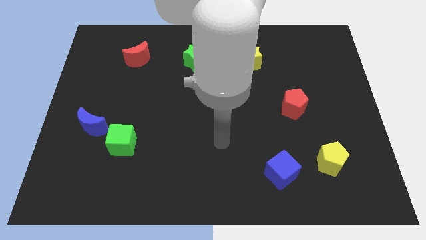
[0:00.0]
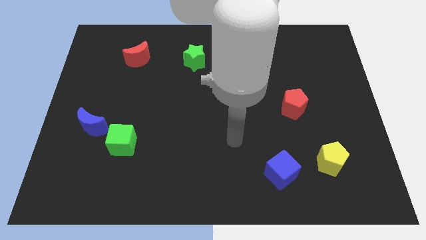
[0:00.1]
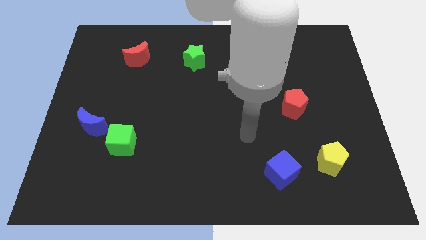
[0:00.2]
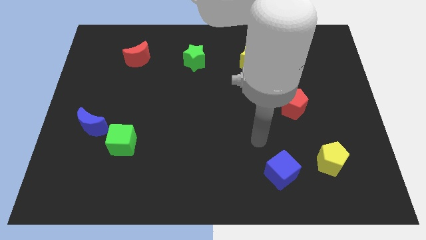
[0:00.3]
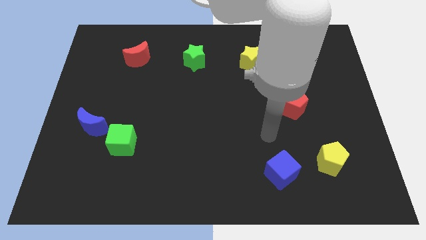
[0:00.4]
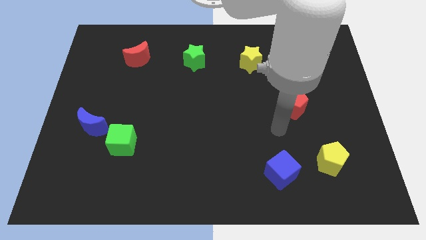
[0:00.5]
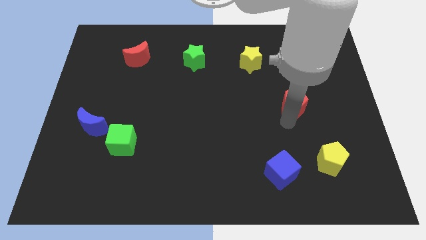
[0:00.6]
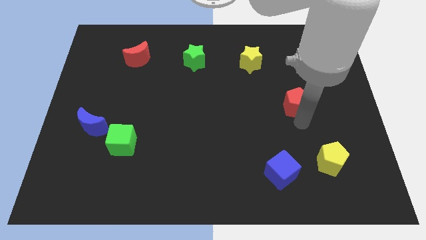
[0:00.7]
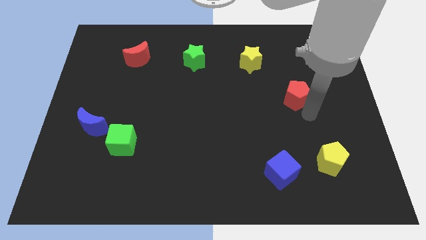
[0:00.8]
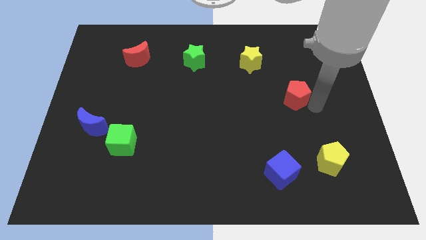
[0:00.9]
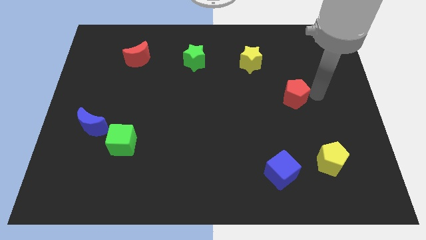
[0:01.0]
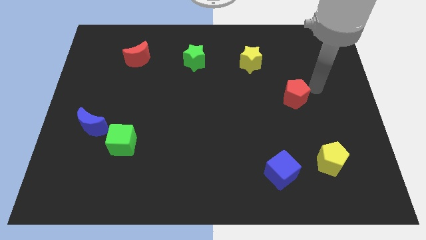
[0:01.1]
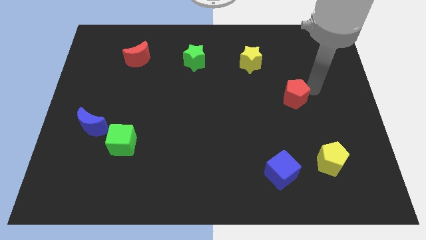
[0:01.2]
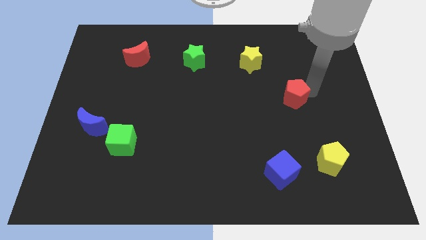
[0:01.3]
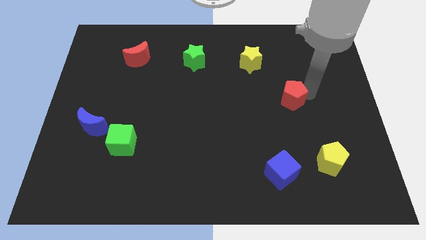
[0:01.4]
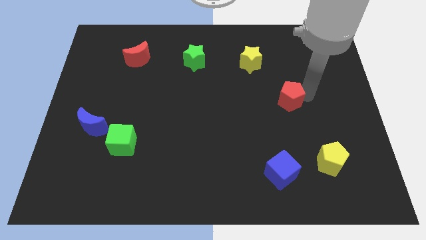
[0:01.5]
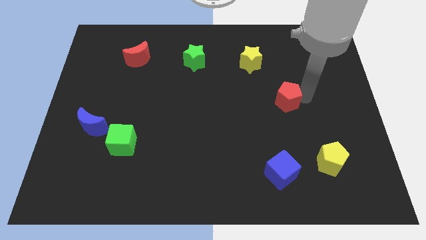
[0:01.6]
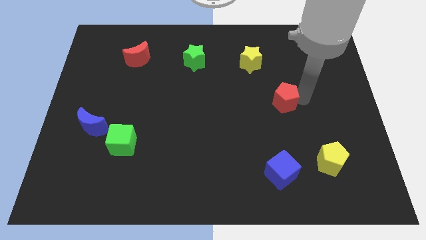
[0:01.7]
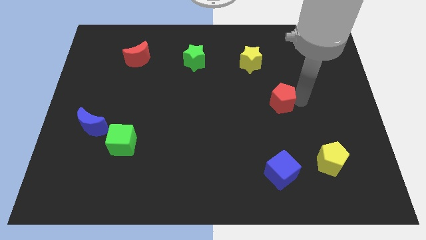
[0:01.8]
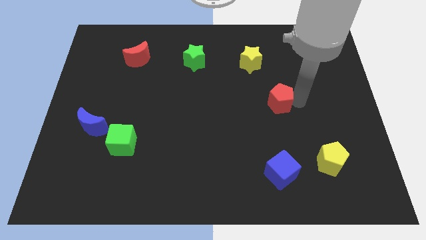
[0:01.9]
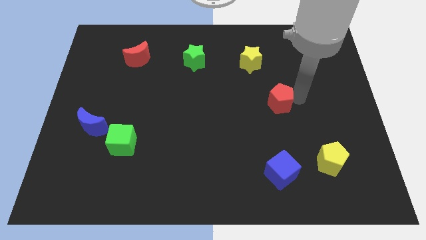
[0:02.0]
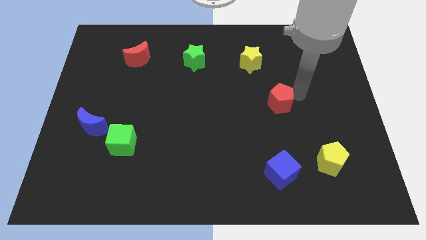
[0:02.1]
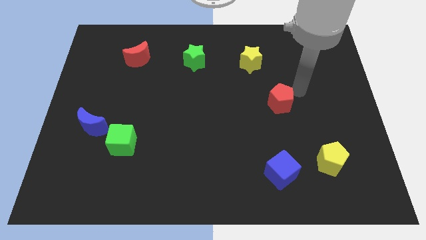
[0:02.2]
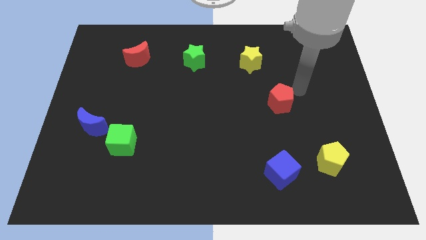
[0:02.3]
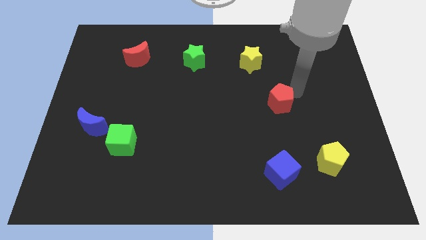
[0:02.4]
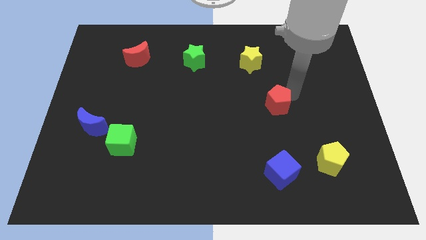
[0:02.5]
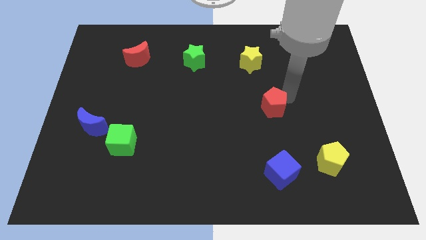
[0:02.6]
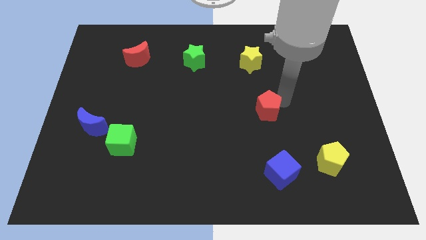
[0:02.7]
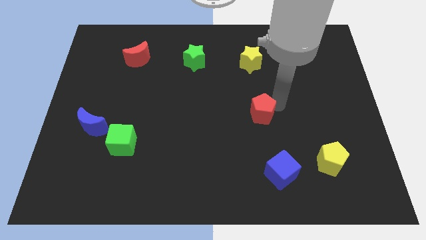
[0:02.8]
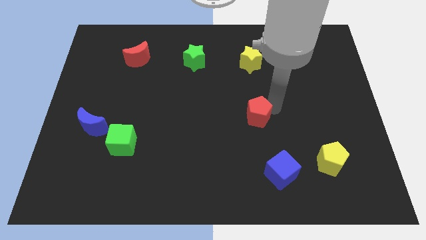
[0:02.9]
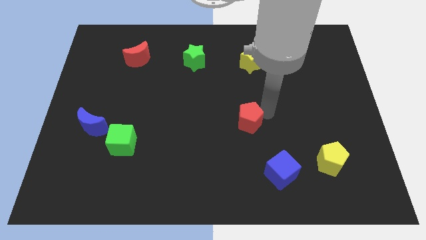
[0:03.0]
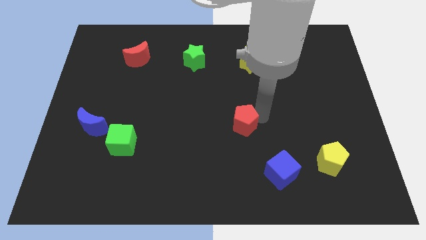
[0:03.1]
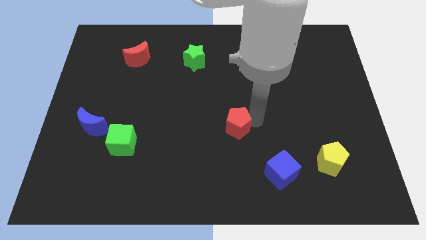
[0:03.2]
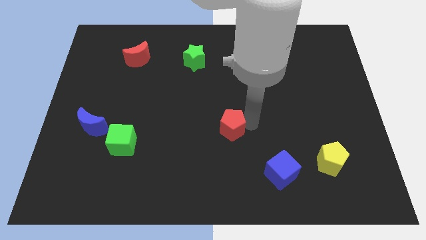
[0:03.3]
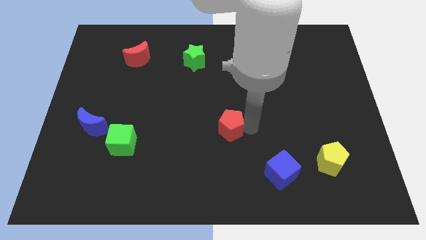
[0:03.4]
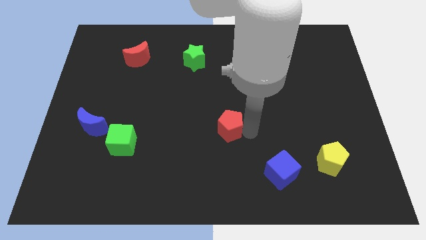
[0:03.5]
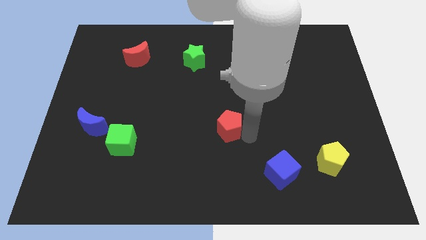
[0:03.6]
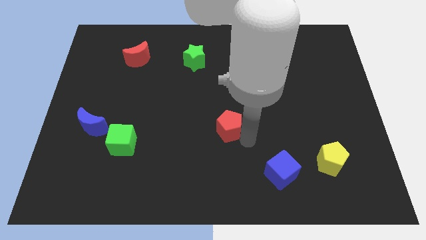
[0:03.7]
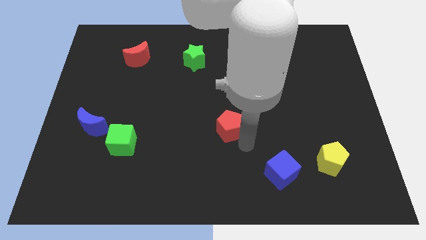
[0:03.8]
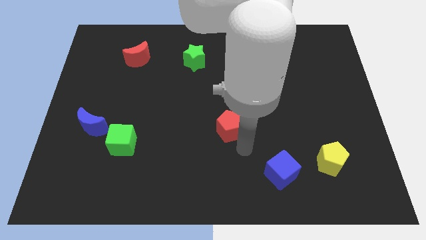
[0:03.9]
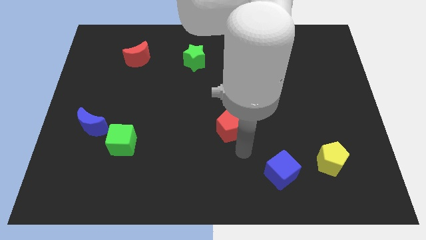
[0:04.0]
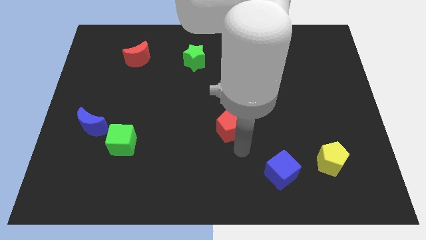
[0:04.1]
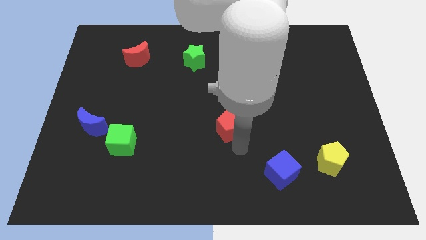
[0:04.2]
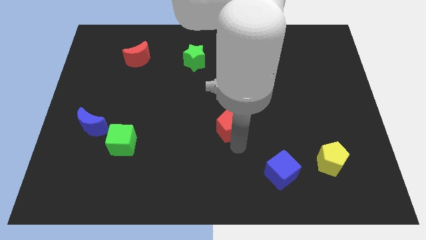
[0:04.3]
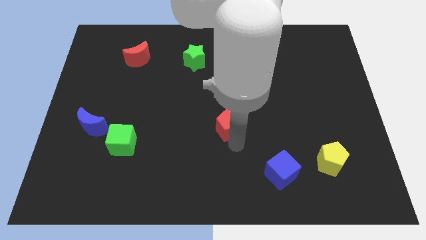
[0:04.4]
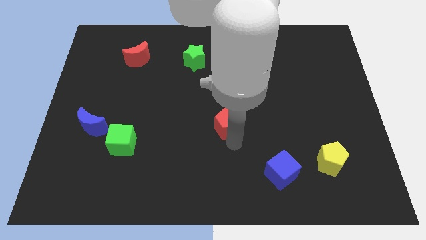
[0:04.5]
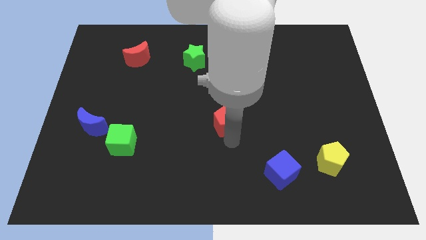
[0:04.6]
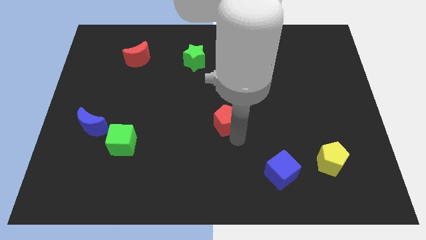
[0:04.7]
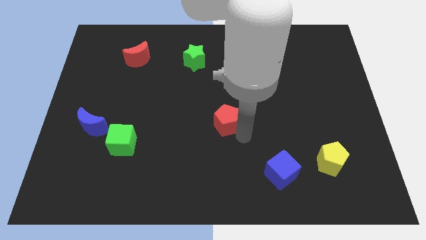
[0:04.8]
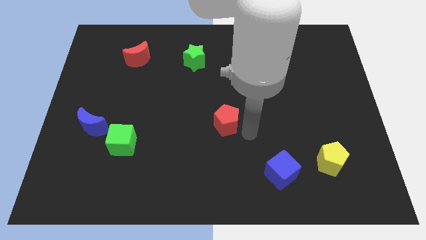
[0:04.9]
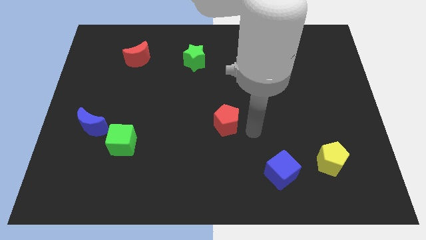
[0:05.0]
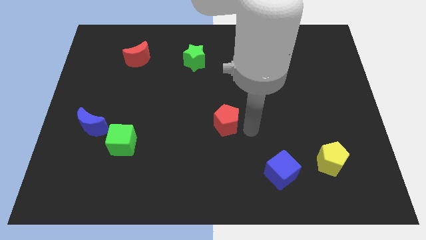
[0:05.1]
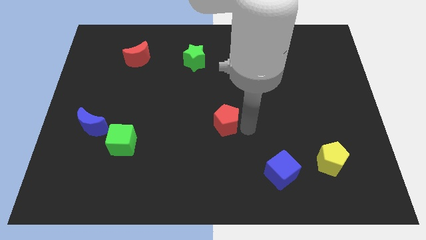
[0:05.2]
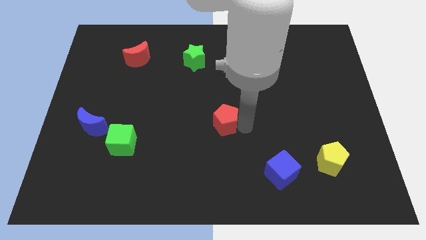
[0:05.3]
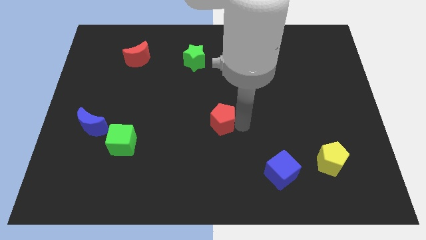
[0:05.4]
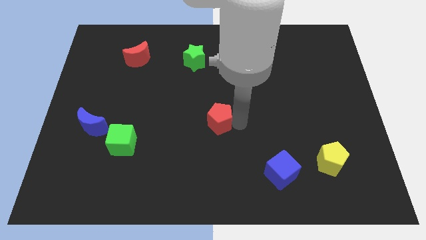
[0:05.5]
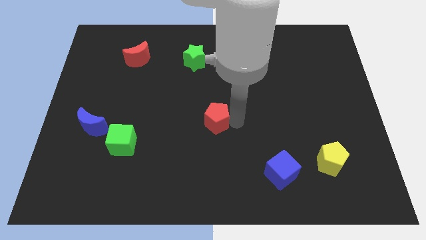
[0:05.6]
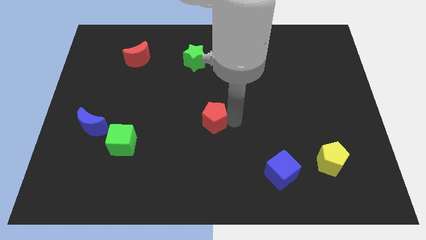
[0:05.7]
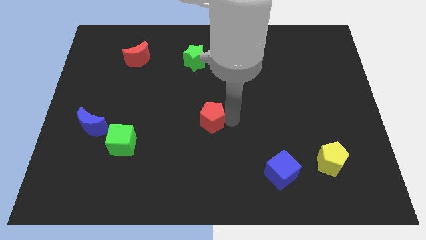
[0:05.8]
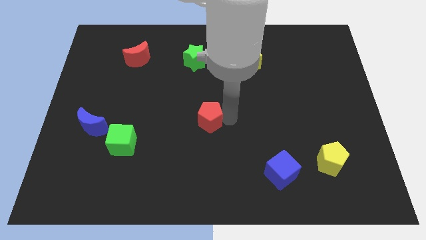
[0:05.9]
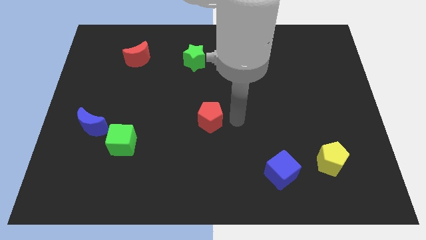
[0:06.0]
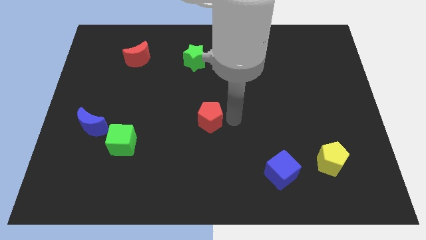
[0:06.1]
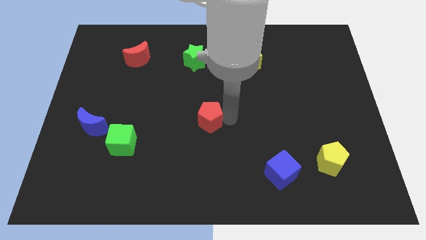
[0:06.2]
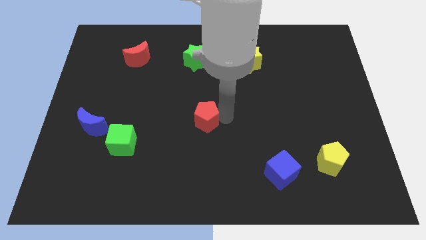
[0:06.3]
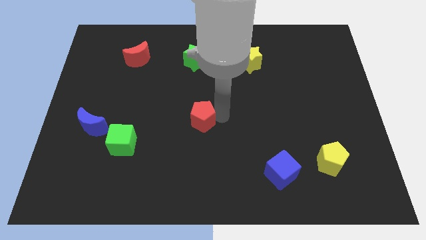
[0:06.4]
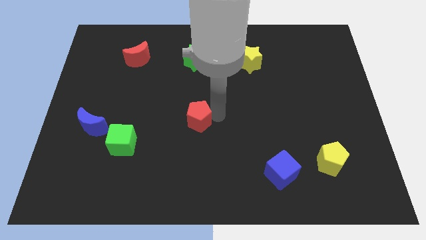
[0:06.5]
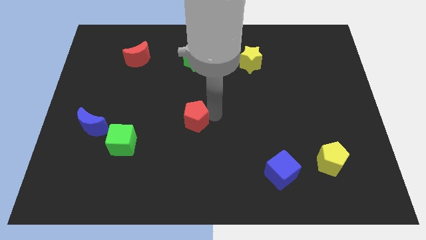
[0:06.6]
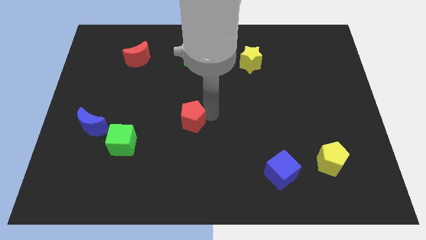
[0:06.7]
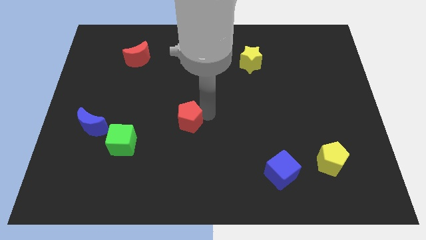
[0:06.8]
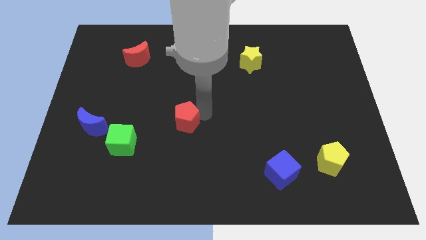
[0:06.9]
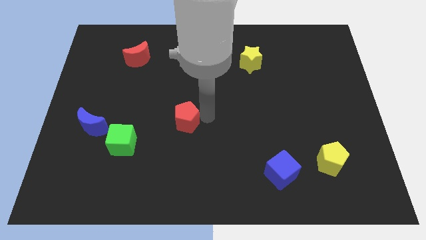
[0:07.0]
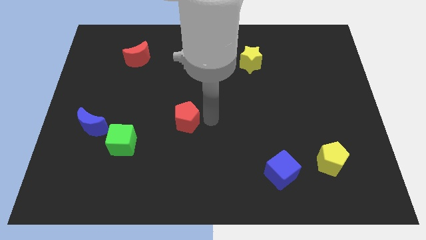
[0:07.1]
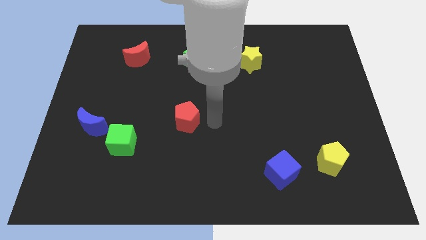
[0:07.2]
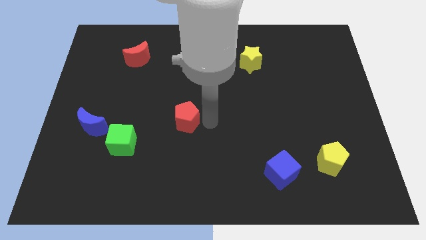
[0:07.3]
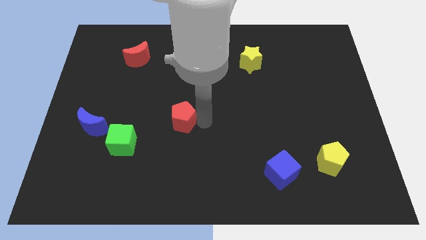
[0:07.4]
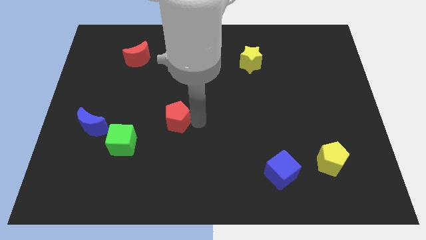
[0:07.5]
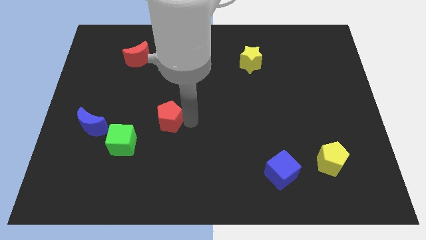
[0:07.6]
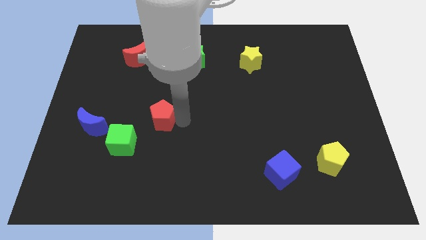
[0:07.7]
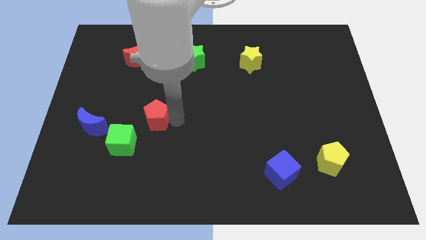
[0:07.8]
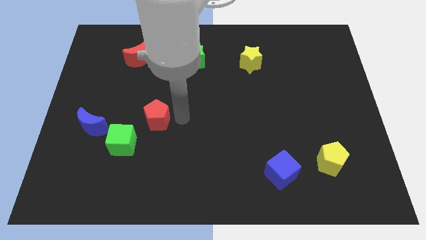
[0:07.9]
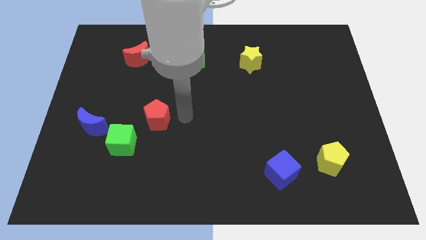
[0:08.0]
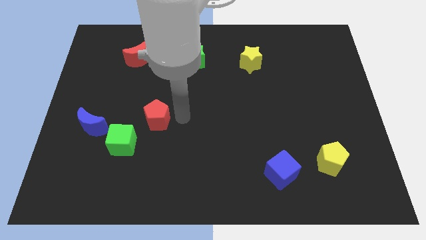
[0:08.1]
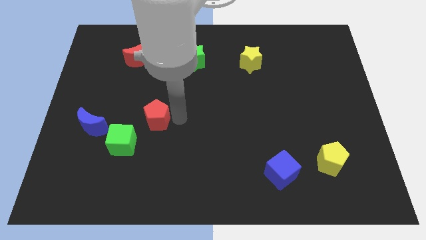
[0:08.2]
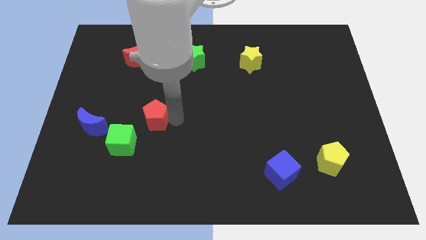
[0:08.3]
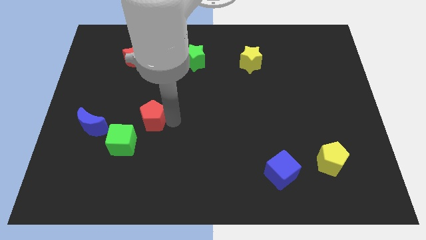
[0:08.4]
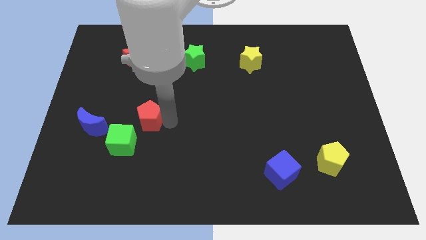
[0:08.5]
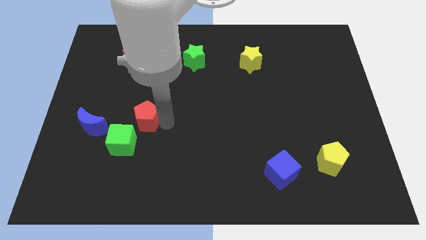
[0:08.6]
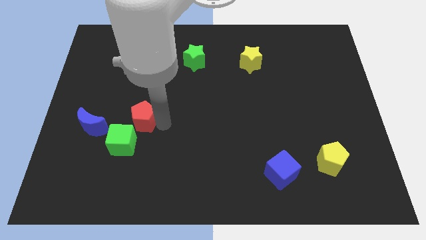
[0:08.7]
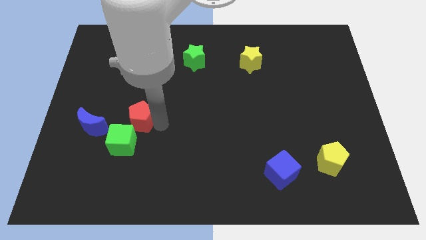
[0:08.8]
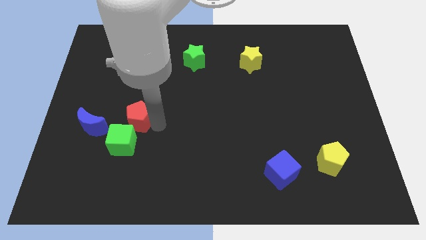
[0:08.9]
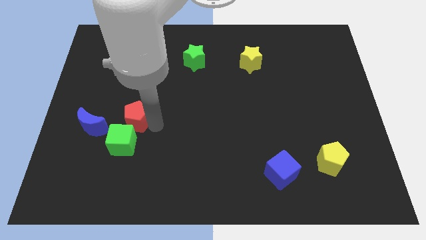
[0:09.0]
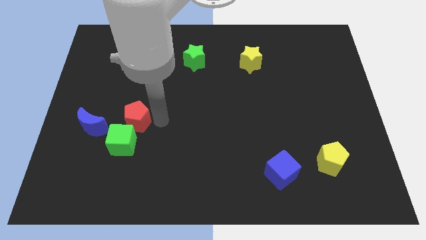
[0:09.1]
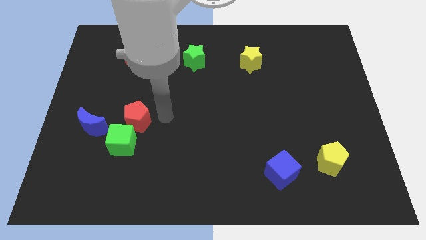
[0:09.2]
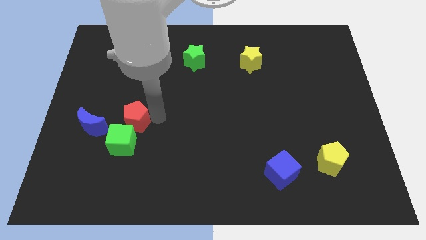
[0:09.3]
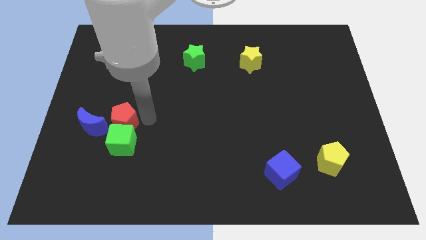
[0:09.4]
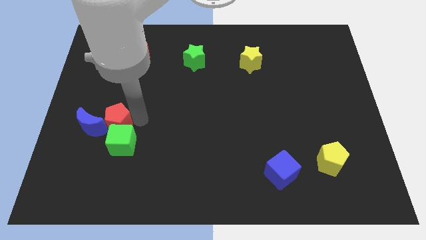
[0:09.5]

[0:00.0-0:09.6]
move the red pentagon close to the blue moon
